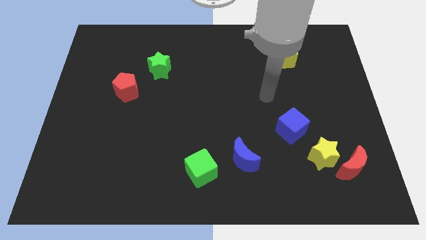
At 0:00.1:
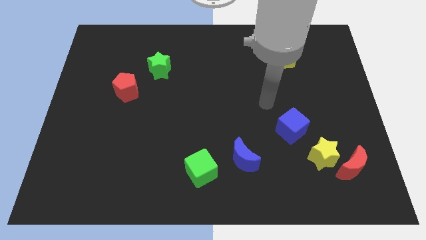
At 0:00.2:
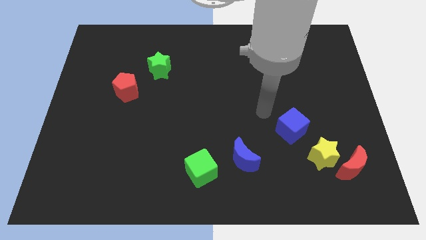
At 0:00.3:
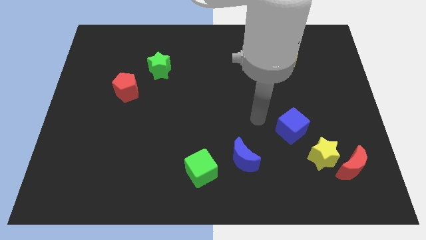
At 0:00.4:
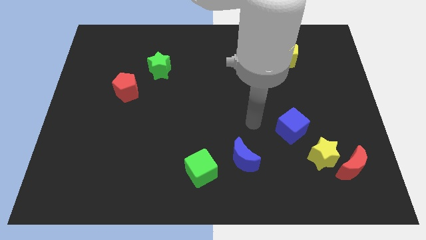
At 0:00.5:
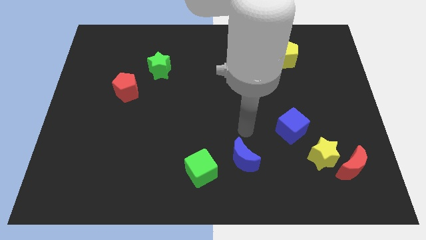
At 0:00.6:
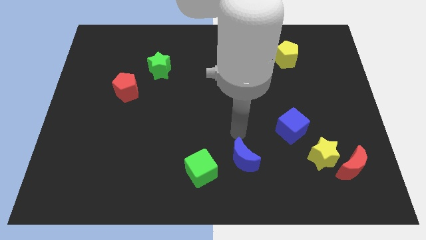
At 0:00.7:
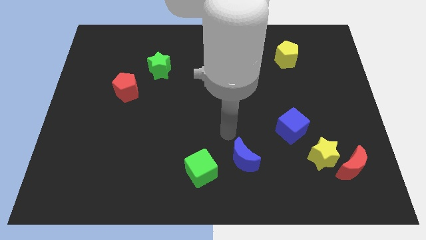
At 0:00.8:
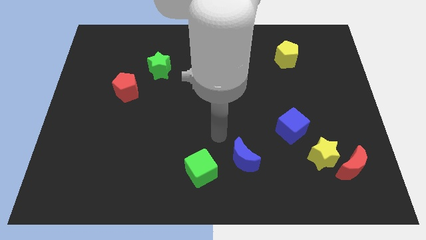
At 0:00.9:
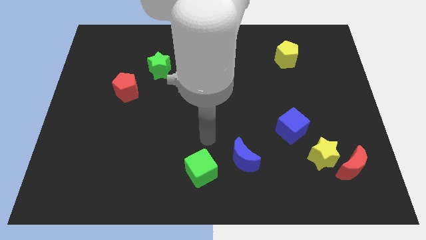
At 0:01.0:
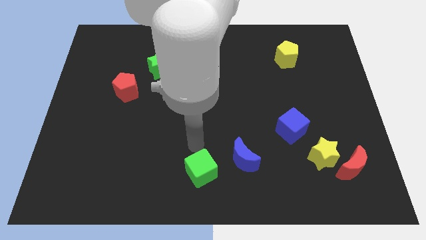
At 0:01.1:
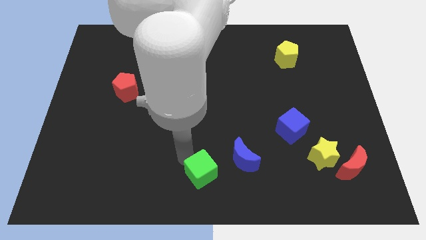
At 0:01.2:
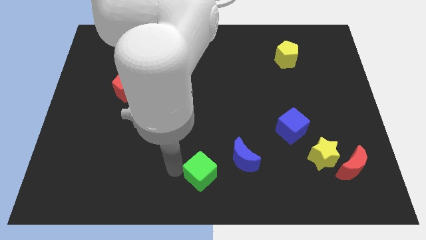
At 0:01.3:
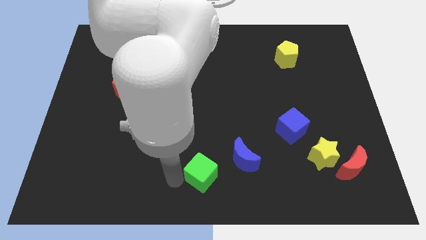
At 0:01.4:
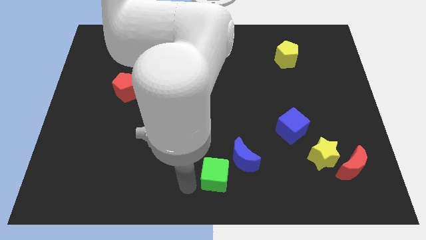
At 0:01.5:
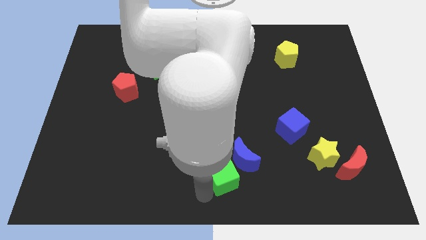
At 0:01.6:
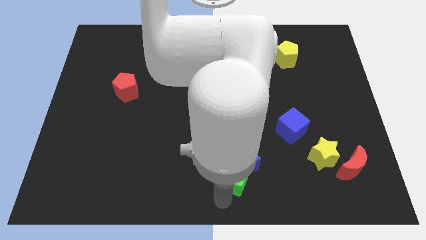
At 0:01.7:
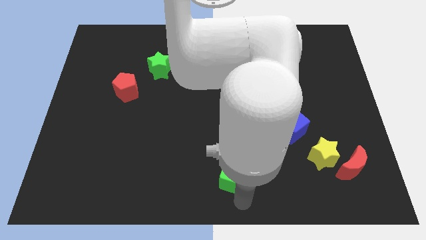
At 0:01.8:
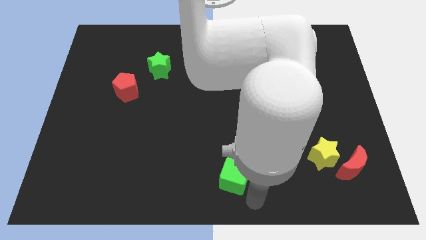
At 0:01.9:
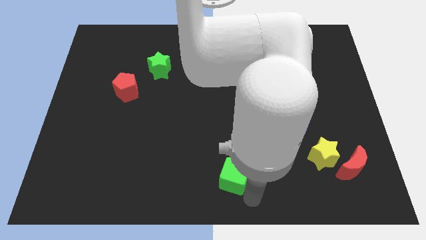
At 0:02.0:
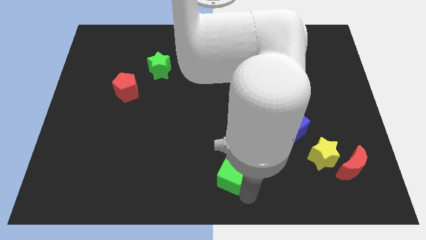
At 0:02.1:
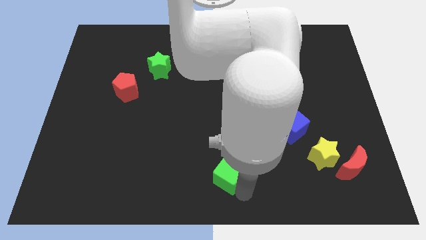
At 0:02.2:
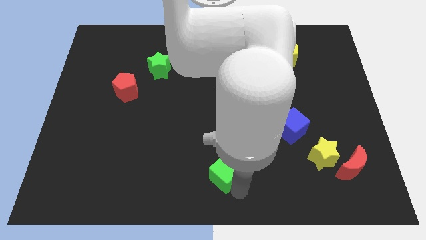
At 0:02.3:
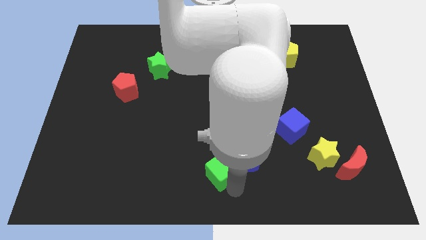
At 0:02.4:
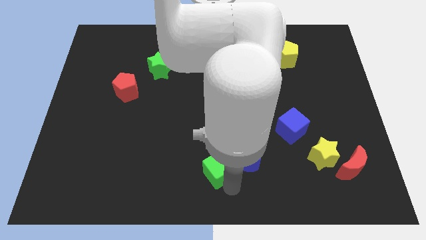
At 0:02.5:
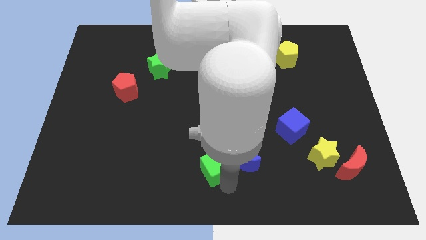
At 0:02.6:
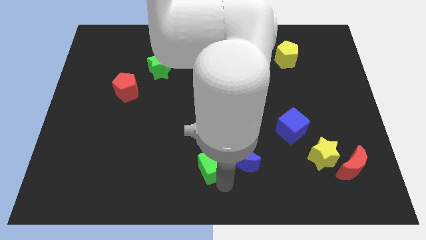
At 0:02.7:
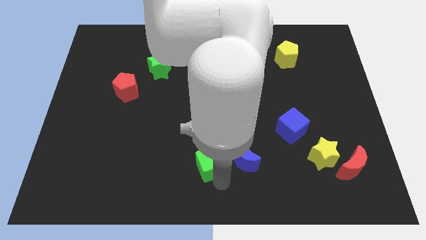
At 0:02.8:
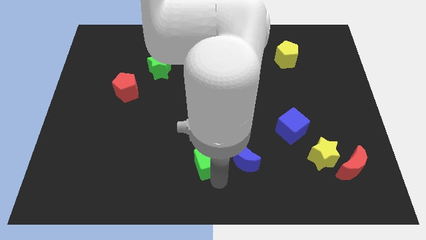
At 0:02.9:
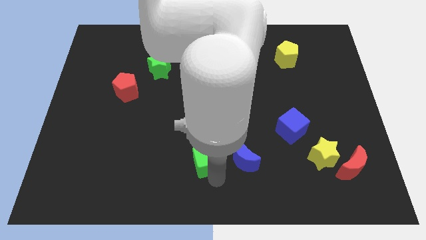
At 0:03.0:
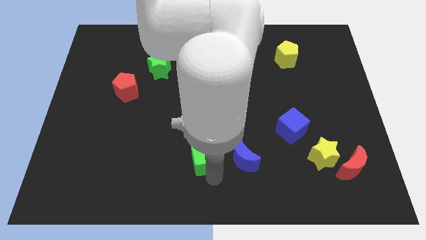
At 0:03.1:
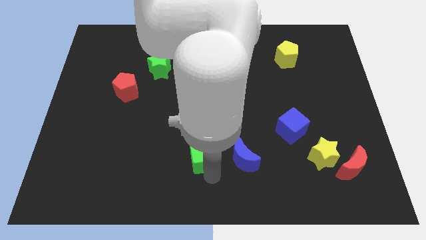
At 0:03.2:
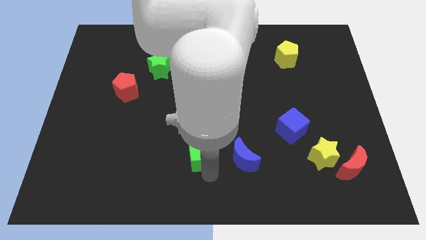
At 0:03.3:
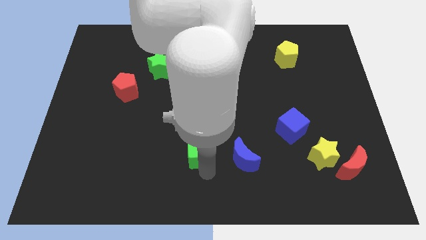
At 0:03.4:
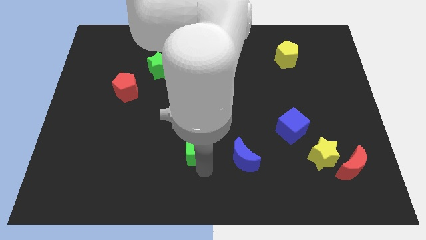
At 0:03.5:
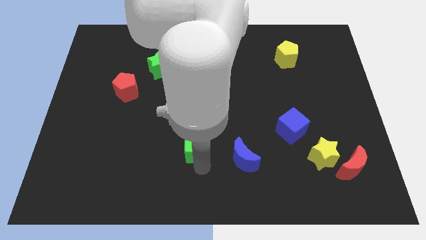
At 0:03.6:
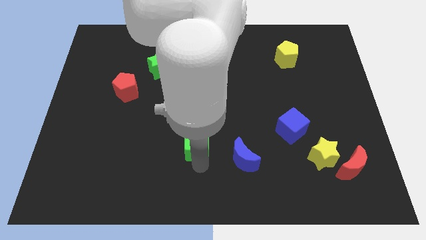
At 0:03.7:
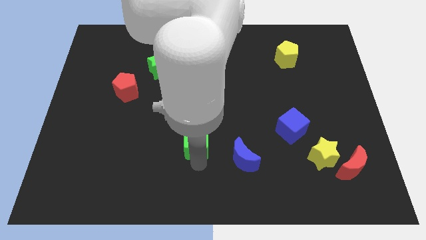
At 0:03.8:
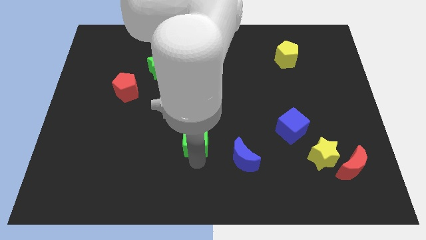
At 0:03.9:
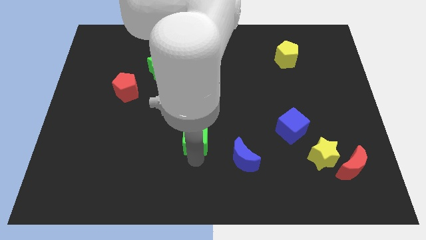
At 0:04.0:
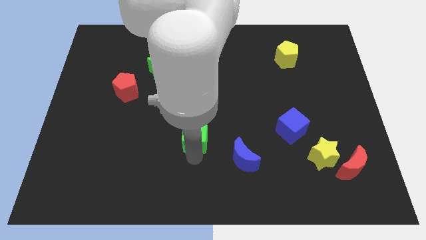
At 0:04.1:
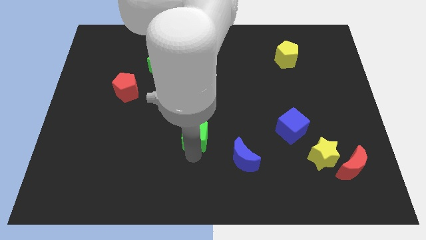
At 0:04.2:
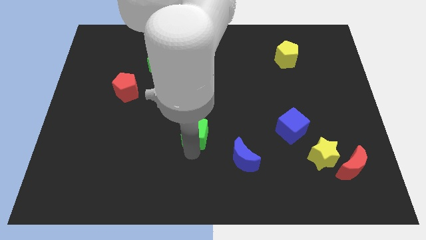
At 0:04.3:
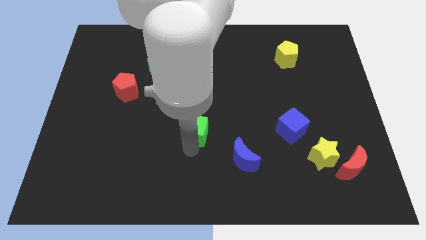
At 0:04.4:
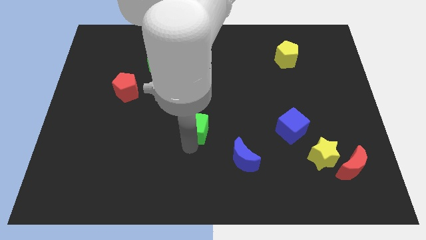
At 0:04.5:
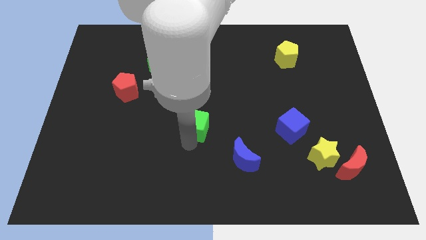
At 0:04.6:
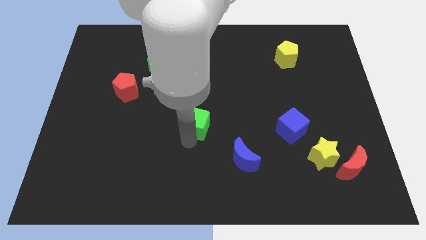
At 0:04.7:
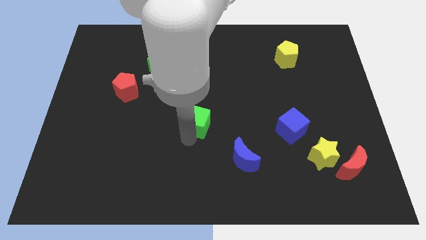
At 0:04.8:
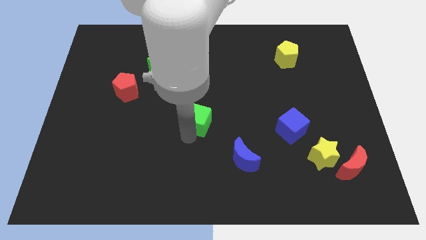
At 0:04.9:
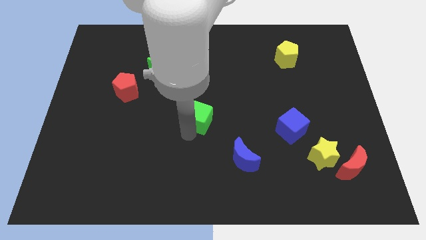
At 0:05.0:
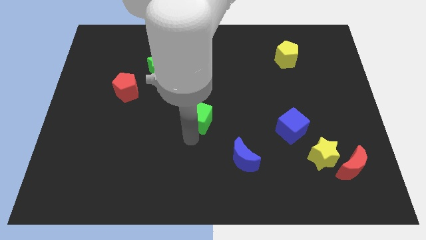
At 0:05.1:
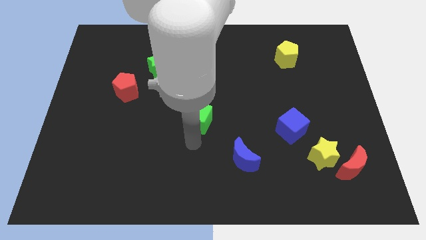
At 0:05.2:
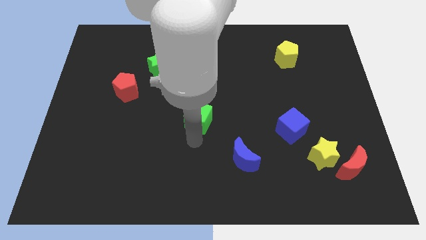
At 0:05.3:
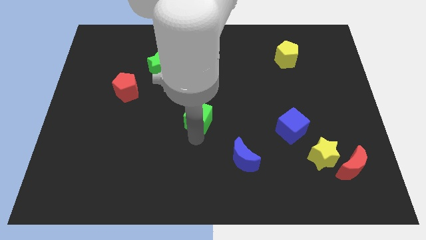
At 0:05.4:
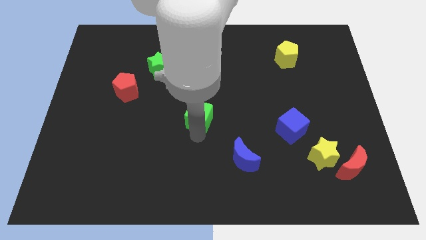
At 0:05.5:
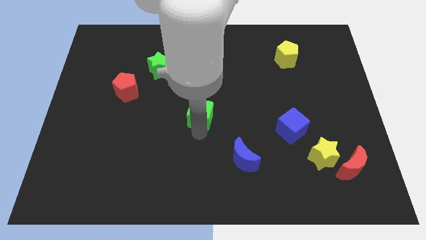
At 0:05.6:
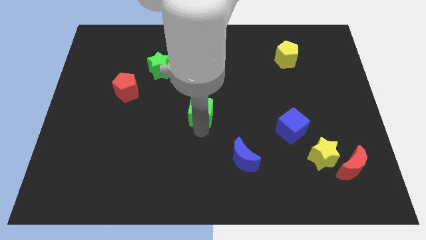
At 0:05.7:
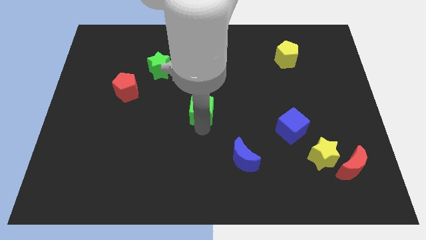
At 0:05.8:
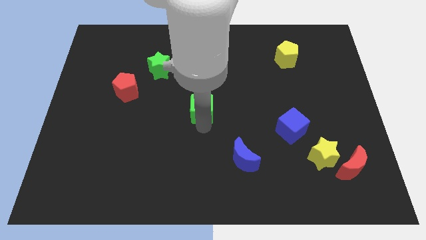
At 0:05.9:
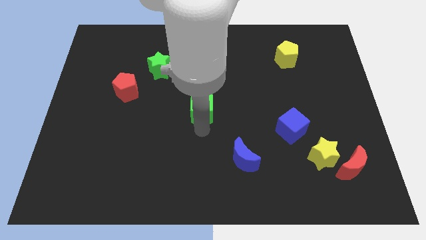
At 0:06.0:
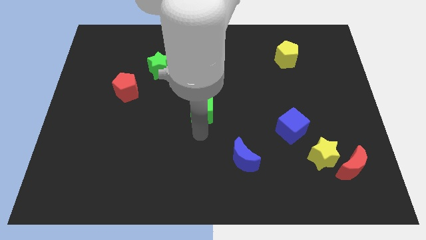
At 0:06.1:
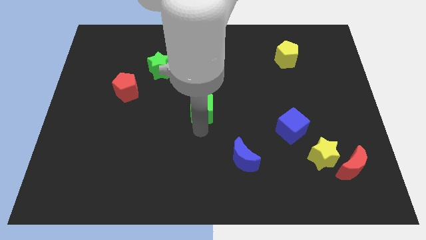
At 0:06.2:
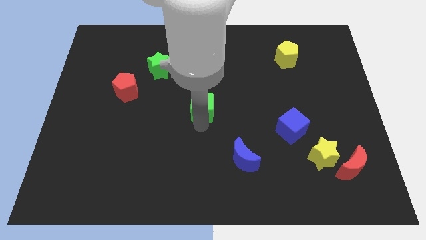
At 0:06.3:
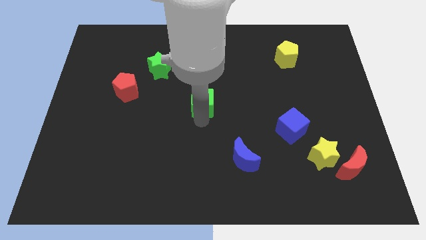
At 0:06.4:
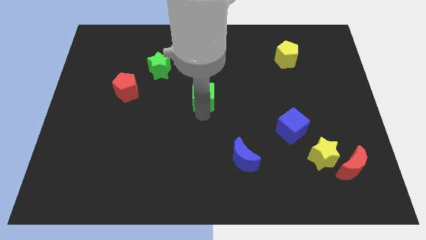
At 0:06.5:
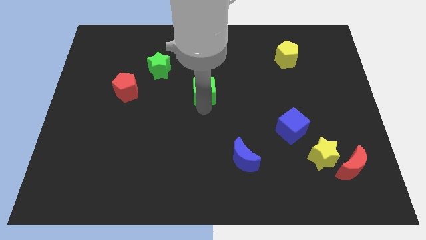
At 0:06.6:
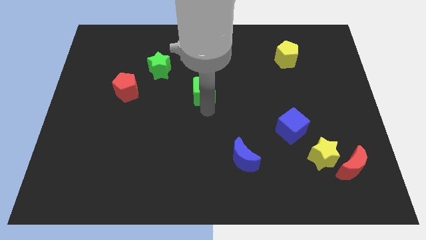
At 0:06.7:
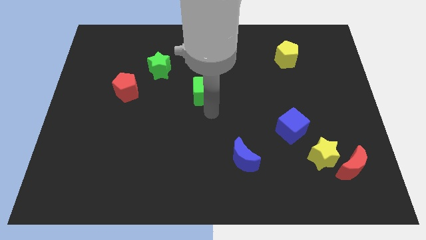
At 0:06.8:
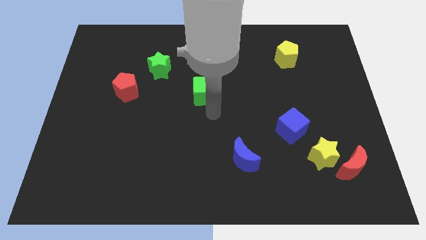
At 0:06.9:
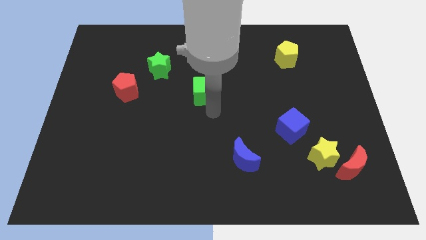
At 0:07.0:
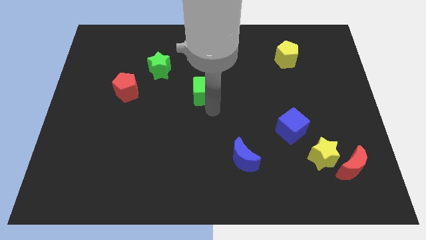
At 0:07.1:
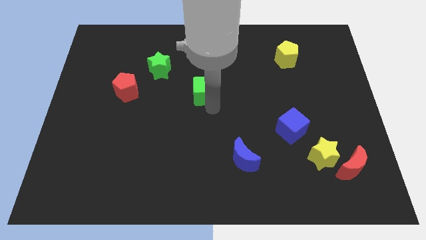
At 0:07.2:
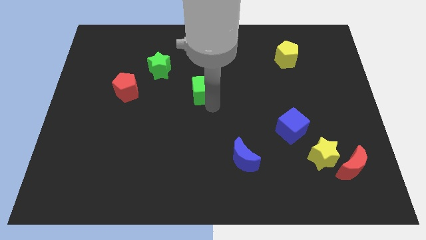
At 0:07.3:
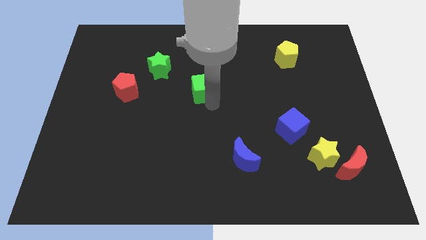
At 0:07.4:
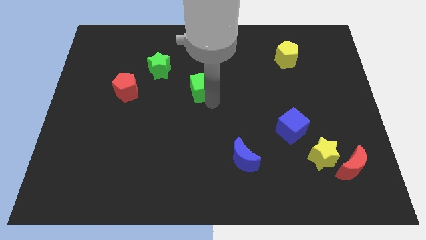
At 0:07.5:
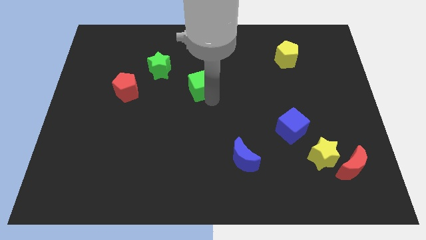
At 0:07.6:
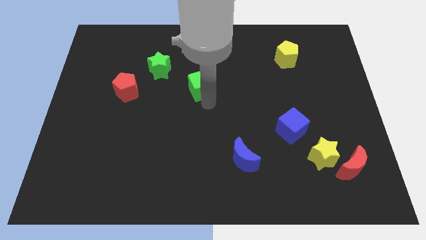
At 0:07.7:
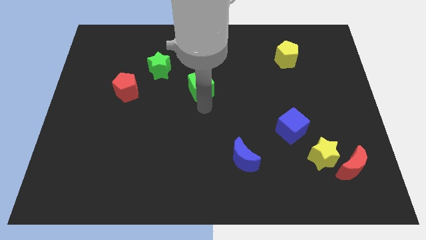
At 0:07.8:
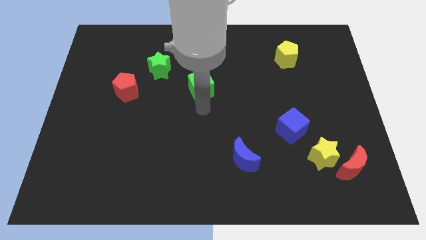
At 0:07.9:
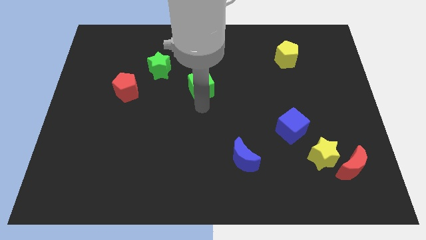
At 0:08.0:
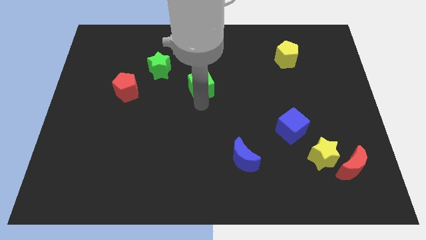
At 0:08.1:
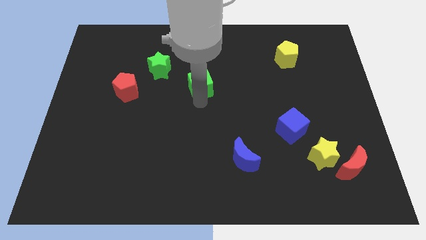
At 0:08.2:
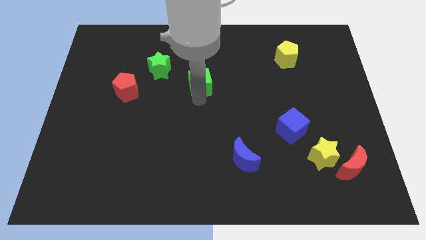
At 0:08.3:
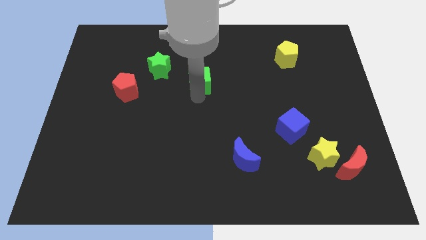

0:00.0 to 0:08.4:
slide the green cube to the right side of the green star
